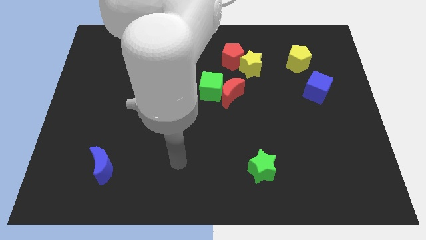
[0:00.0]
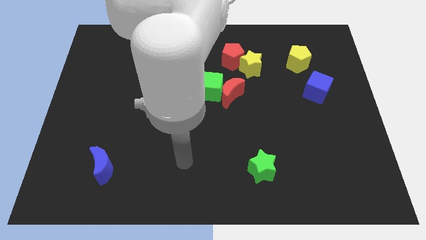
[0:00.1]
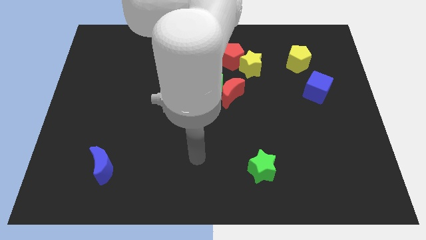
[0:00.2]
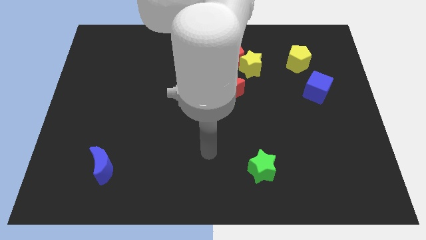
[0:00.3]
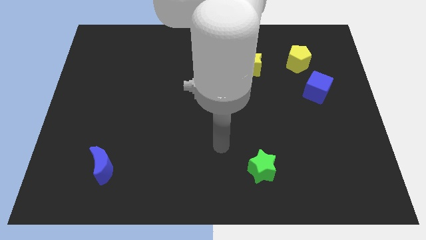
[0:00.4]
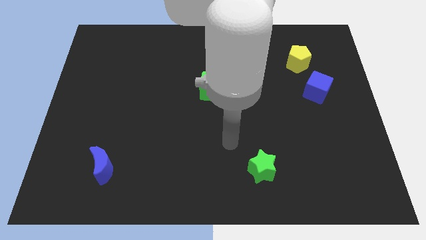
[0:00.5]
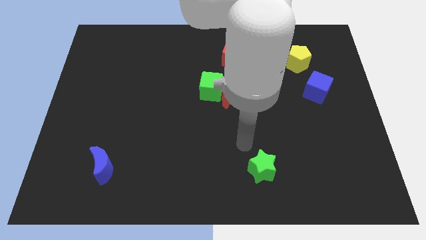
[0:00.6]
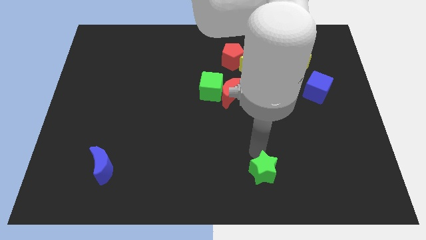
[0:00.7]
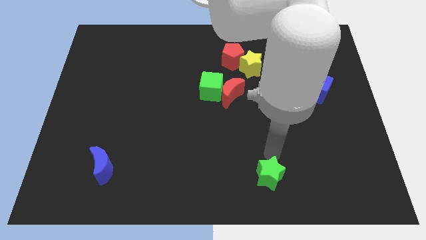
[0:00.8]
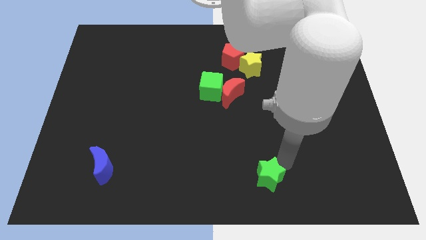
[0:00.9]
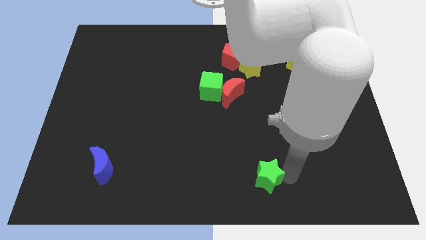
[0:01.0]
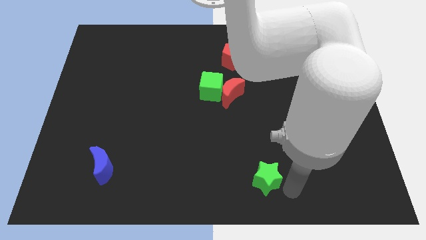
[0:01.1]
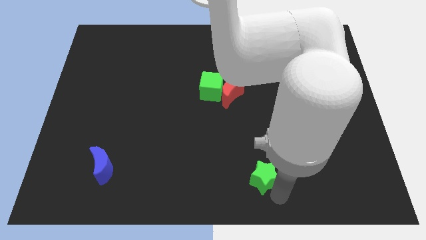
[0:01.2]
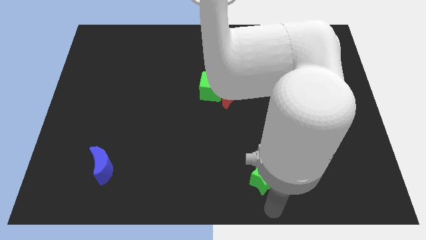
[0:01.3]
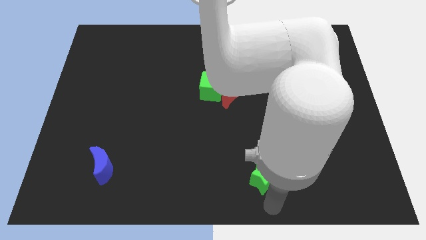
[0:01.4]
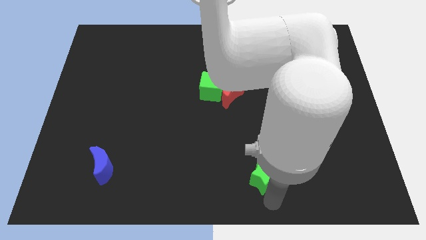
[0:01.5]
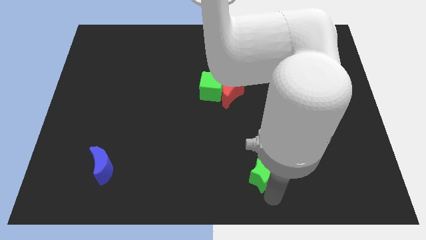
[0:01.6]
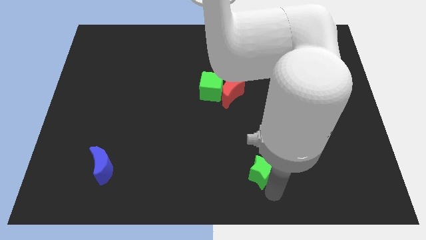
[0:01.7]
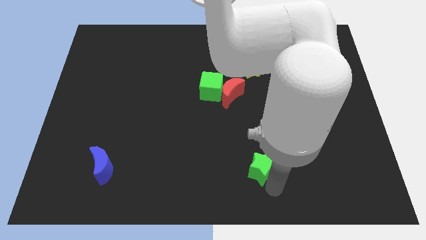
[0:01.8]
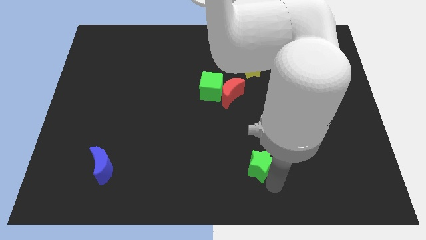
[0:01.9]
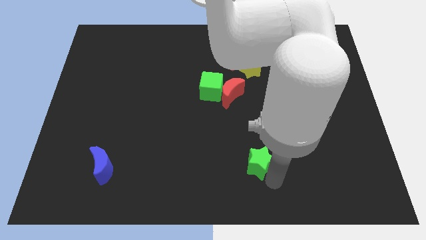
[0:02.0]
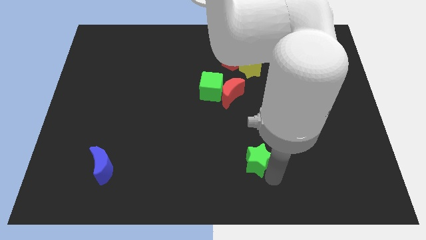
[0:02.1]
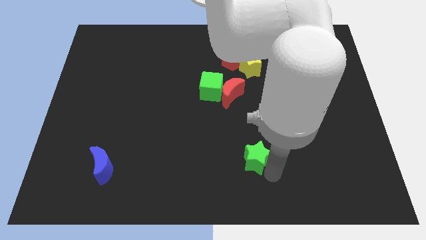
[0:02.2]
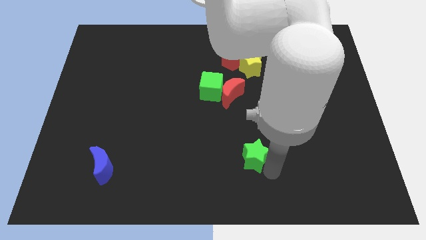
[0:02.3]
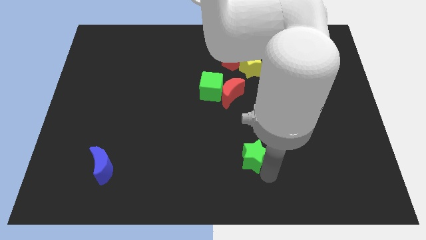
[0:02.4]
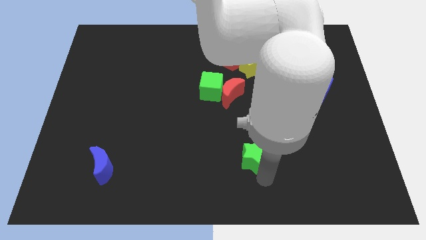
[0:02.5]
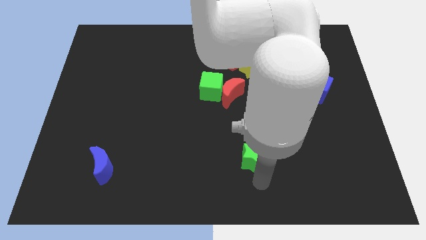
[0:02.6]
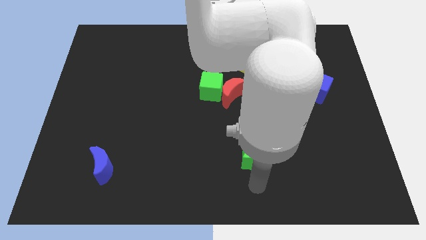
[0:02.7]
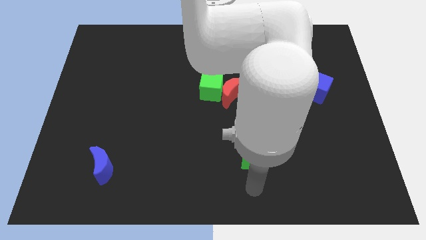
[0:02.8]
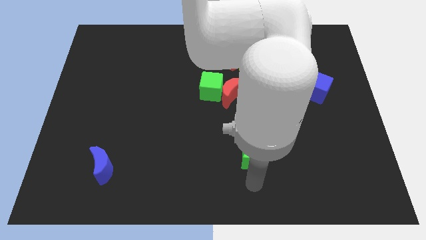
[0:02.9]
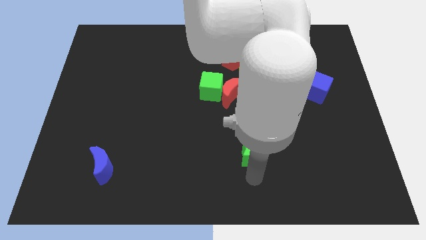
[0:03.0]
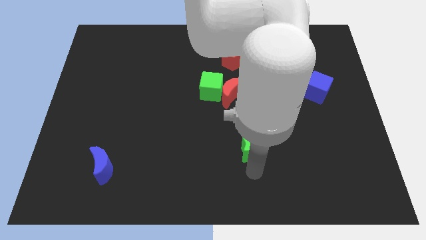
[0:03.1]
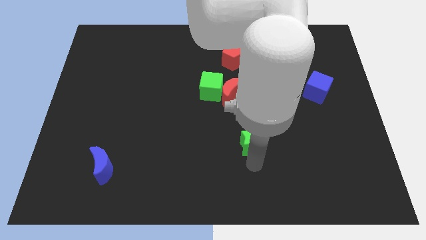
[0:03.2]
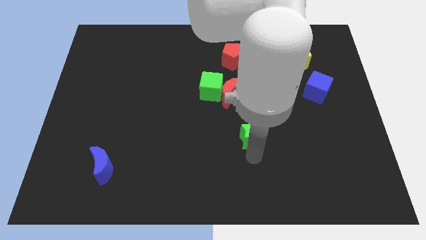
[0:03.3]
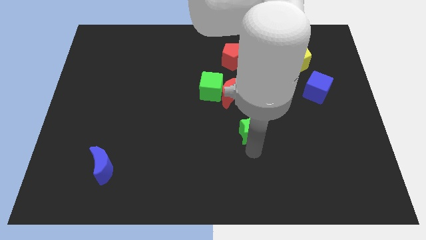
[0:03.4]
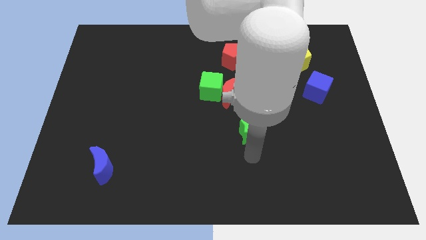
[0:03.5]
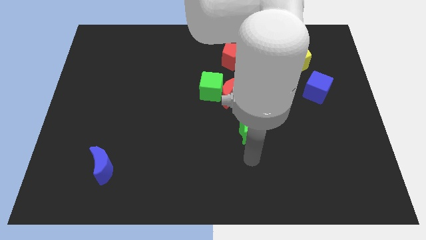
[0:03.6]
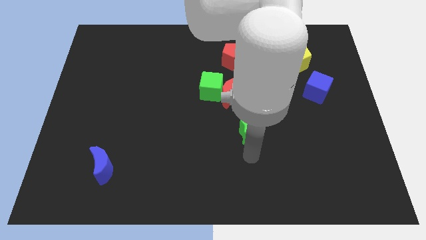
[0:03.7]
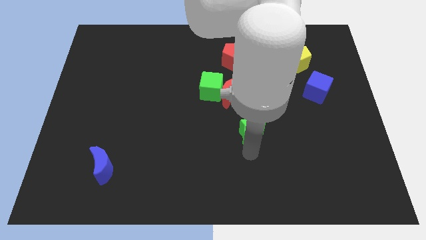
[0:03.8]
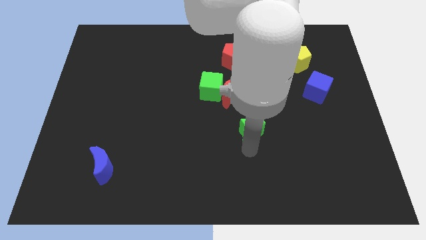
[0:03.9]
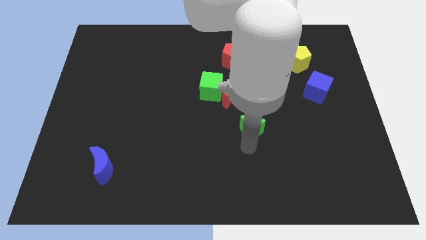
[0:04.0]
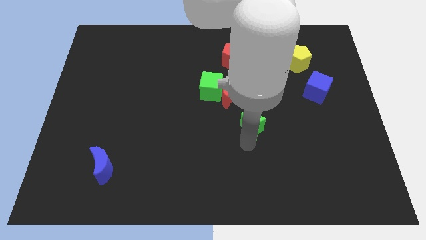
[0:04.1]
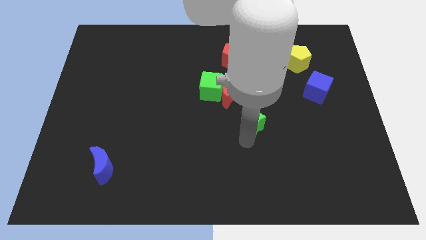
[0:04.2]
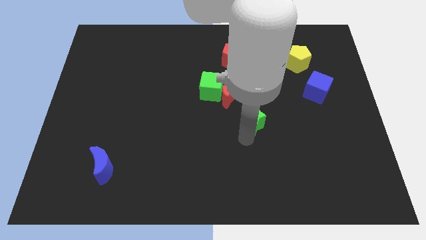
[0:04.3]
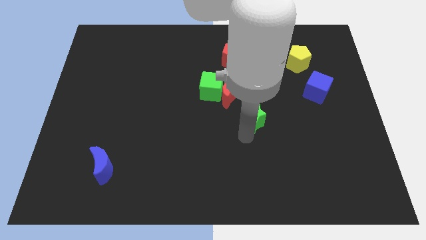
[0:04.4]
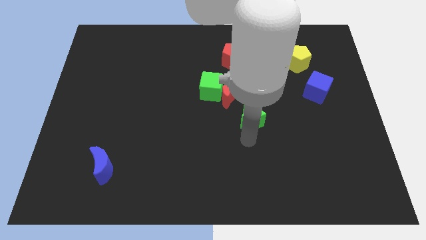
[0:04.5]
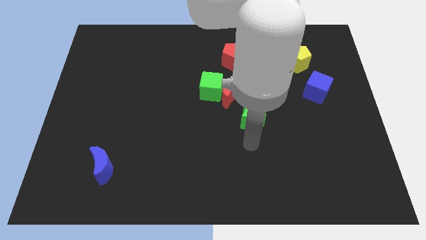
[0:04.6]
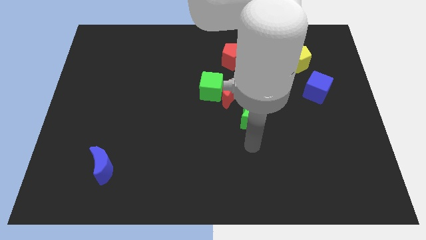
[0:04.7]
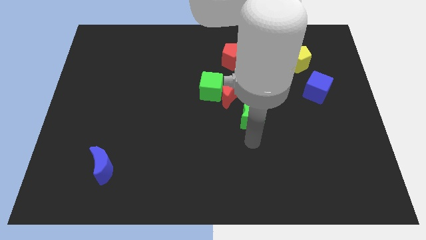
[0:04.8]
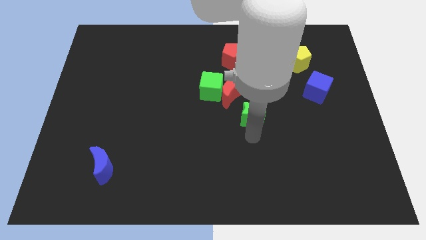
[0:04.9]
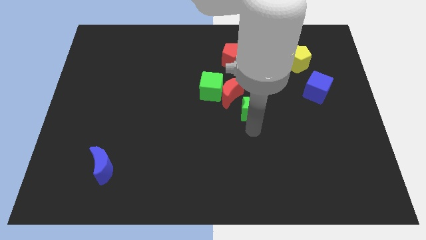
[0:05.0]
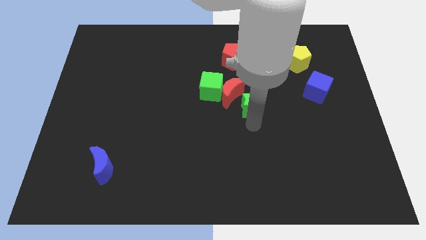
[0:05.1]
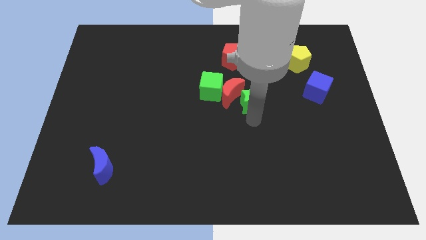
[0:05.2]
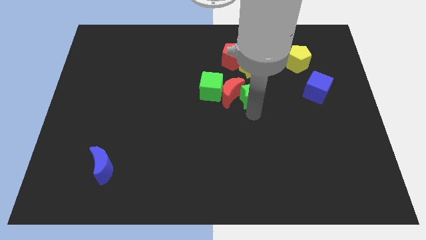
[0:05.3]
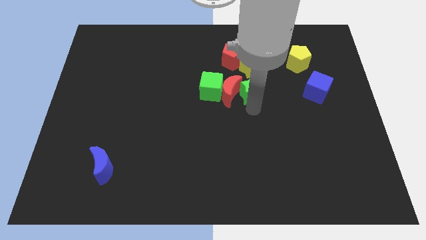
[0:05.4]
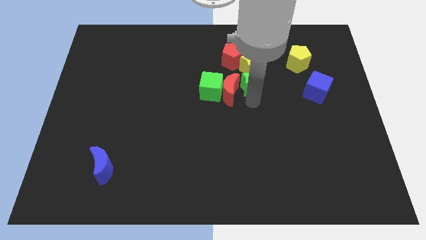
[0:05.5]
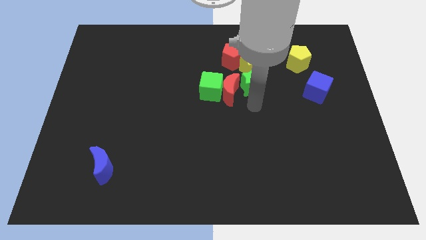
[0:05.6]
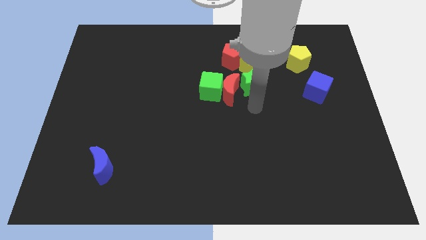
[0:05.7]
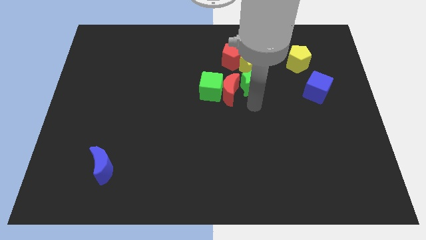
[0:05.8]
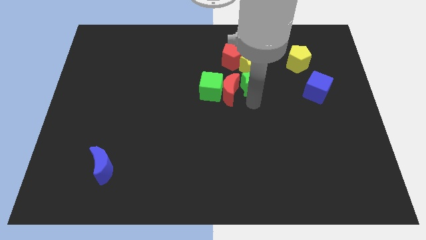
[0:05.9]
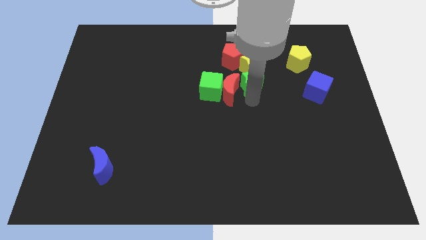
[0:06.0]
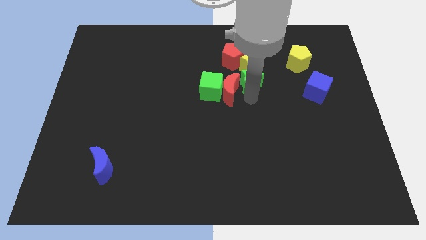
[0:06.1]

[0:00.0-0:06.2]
move the green star next to the yellow star
